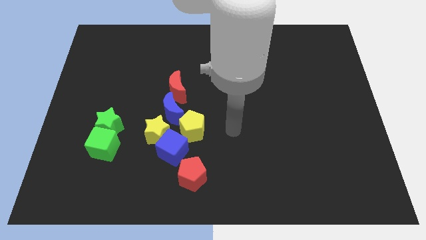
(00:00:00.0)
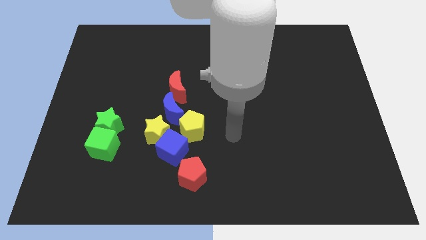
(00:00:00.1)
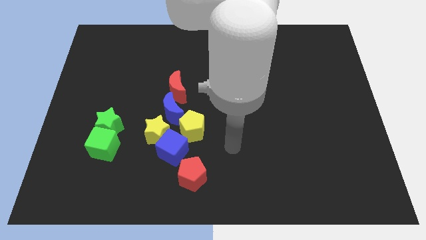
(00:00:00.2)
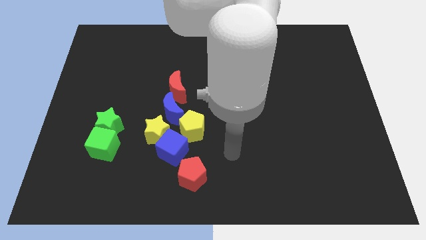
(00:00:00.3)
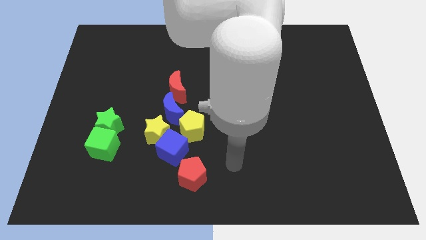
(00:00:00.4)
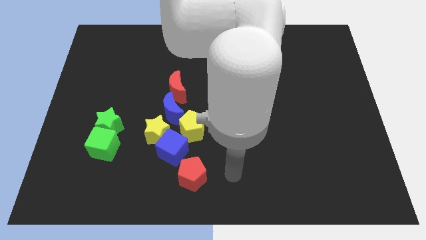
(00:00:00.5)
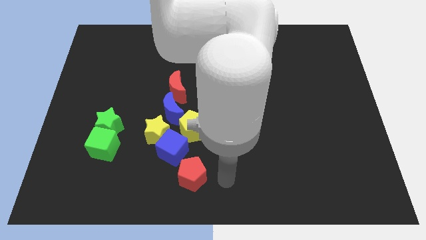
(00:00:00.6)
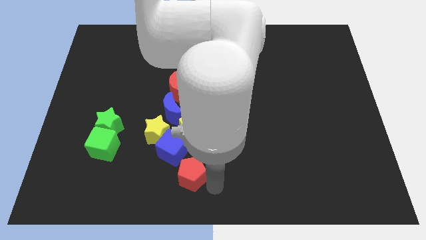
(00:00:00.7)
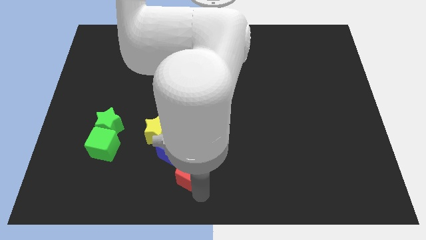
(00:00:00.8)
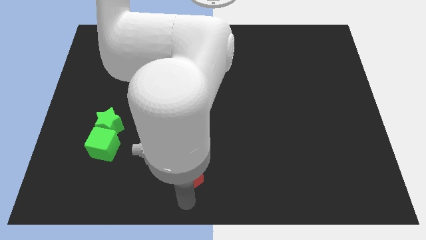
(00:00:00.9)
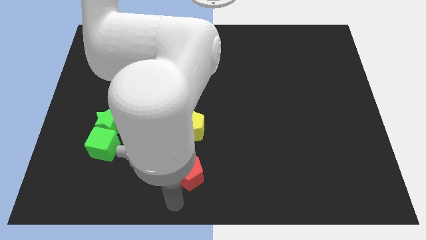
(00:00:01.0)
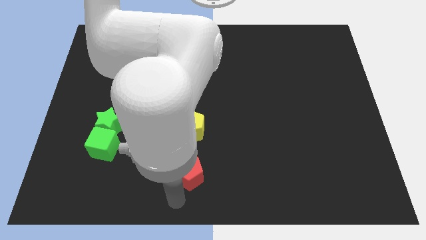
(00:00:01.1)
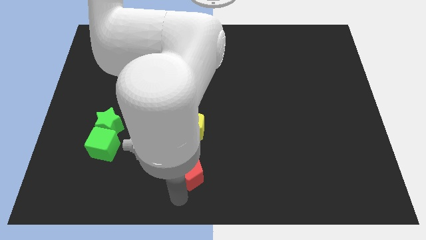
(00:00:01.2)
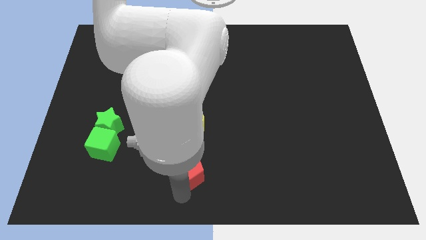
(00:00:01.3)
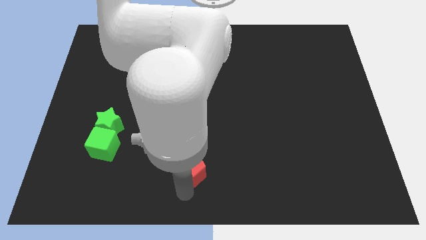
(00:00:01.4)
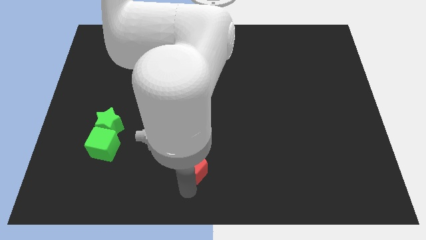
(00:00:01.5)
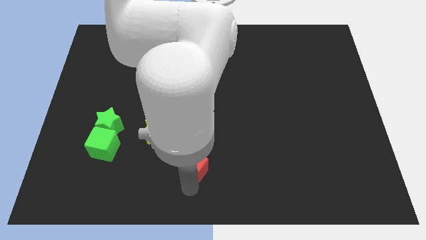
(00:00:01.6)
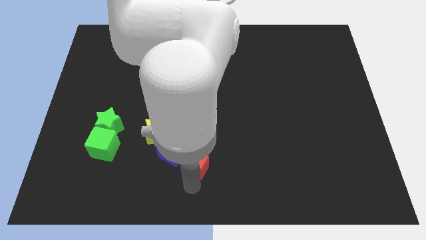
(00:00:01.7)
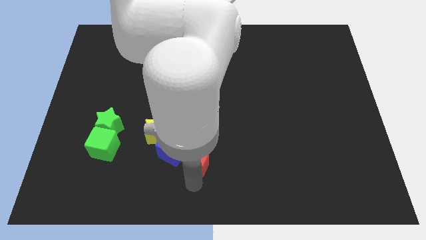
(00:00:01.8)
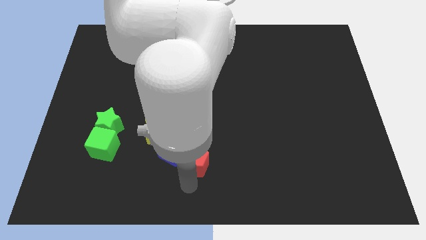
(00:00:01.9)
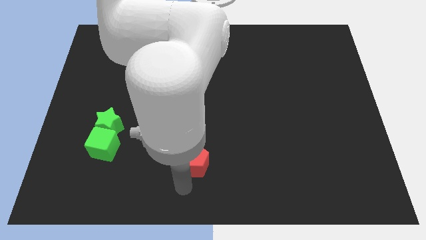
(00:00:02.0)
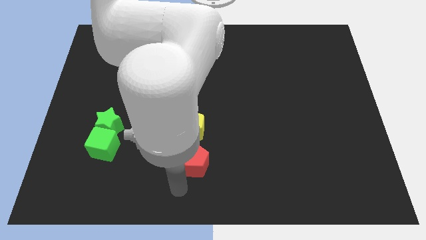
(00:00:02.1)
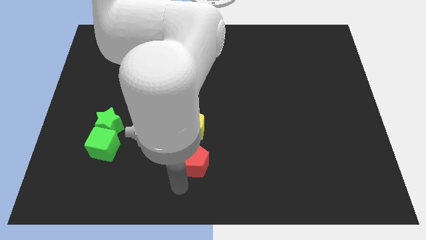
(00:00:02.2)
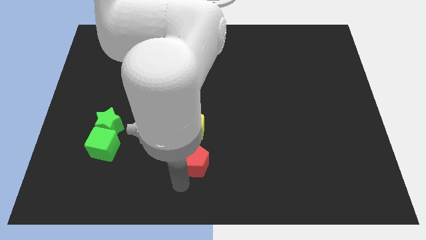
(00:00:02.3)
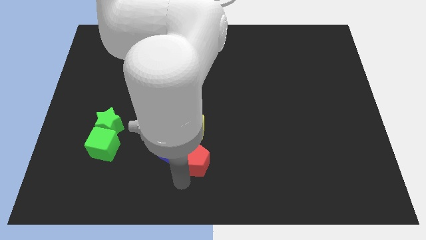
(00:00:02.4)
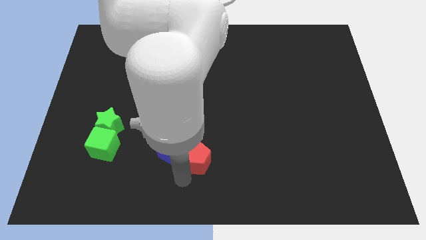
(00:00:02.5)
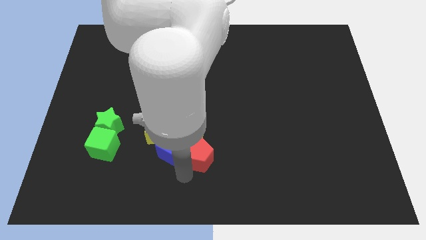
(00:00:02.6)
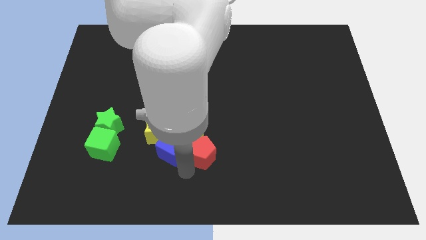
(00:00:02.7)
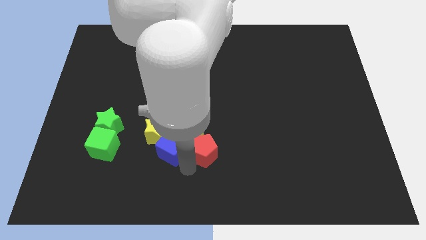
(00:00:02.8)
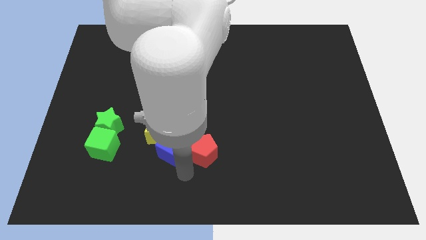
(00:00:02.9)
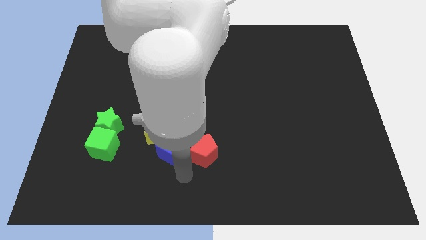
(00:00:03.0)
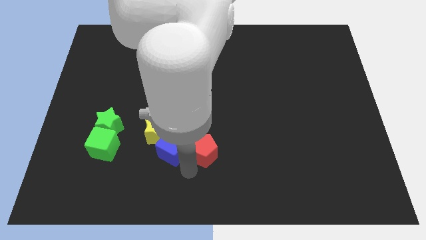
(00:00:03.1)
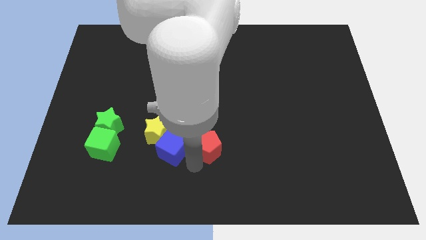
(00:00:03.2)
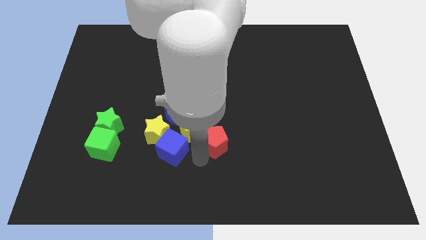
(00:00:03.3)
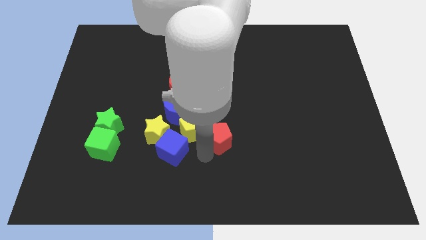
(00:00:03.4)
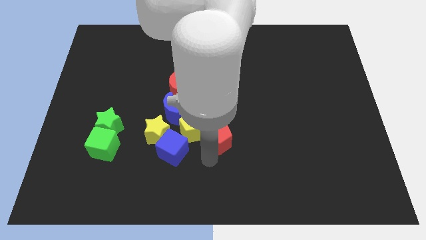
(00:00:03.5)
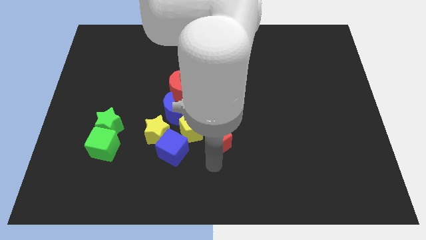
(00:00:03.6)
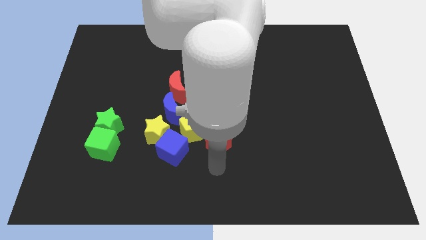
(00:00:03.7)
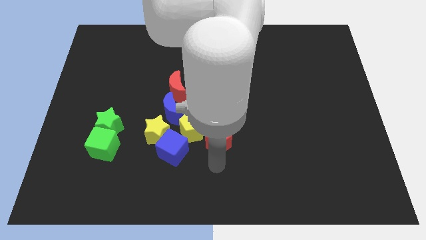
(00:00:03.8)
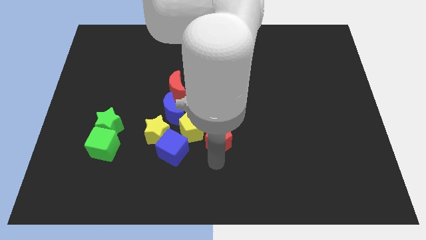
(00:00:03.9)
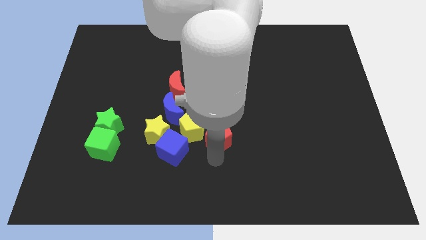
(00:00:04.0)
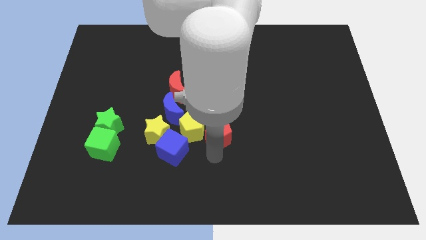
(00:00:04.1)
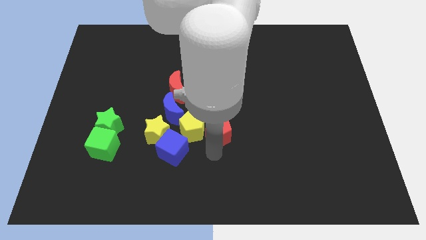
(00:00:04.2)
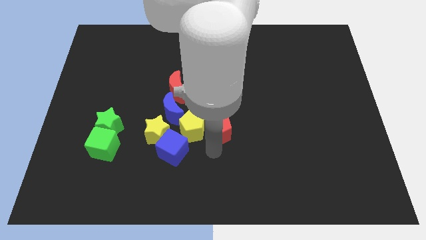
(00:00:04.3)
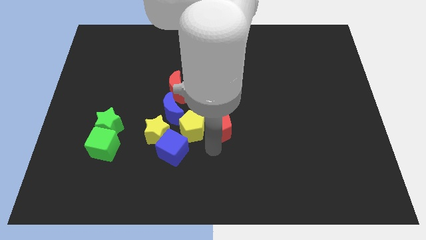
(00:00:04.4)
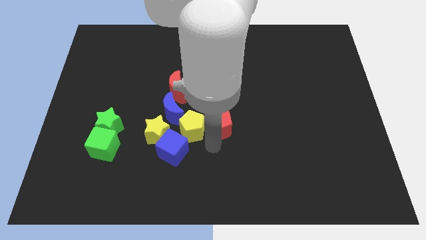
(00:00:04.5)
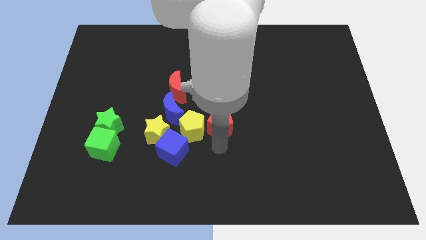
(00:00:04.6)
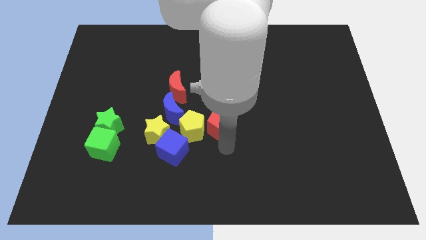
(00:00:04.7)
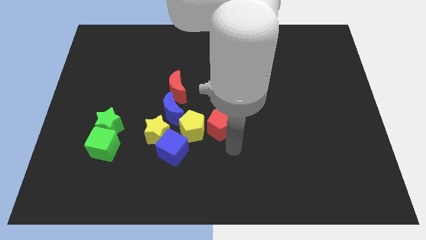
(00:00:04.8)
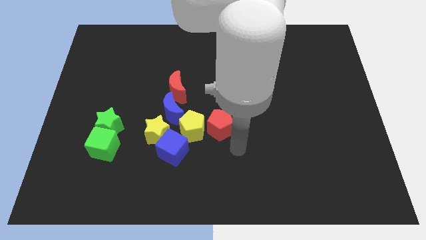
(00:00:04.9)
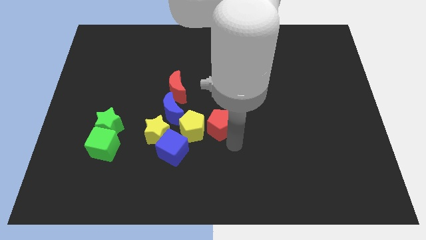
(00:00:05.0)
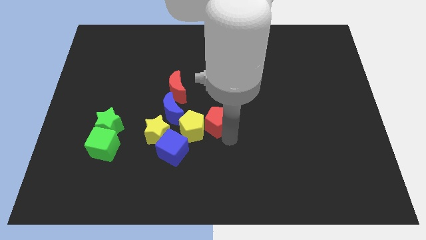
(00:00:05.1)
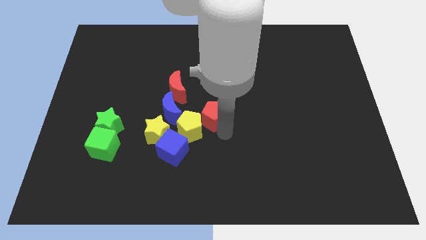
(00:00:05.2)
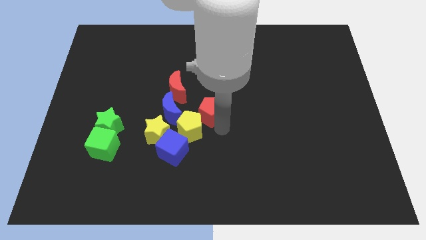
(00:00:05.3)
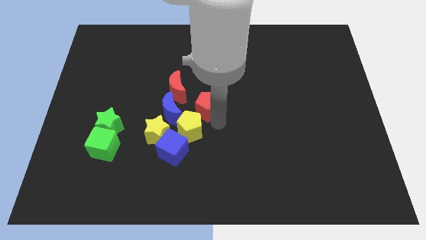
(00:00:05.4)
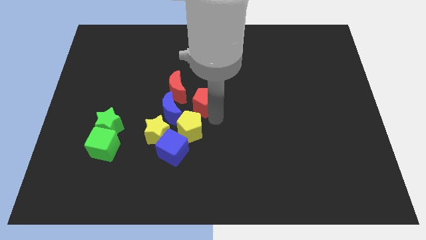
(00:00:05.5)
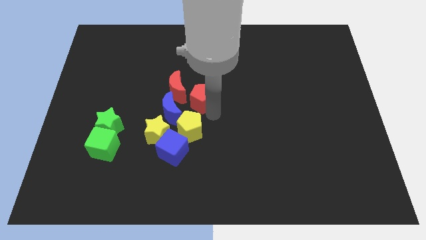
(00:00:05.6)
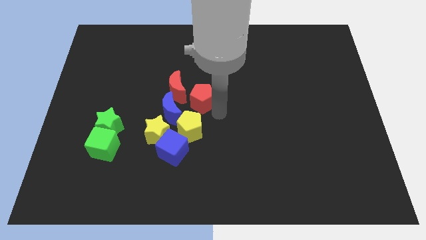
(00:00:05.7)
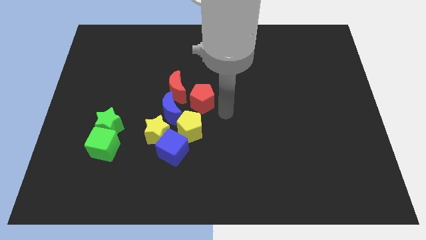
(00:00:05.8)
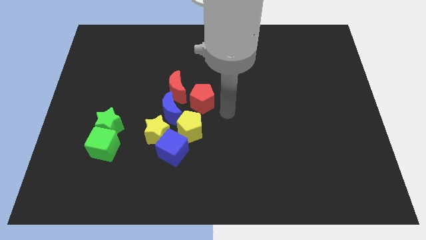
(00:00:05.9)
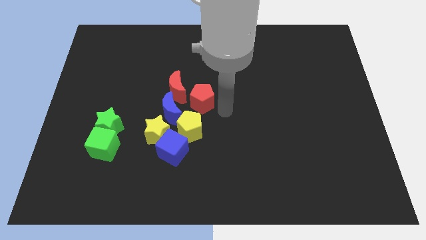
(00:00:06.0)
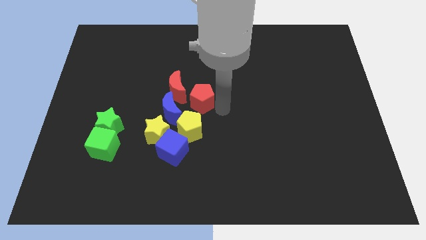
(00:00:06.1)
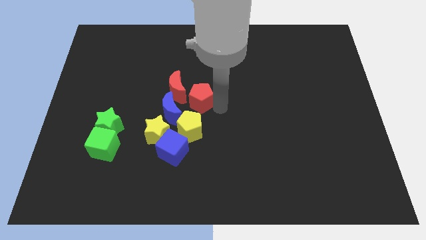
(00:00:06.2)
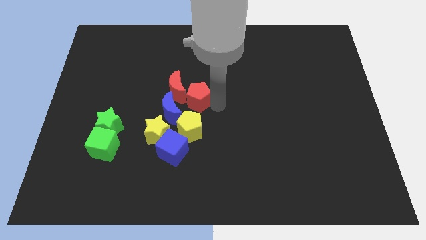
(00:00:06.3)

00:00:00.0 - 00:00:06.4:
move the red pentagon towards the red moon

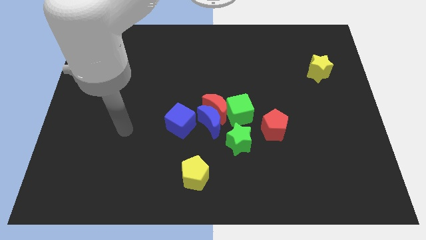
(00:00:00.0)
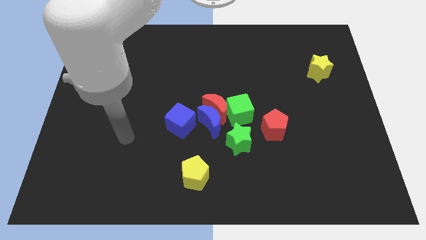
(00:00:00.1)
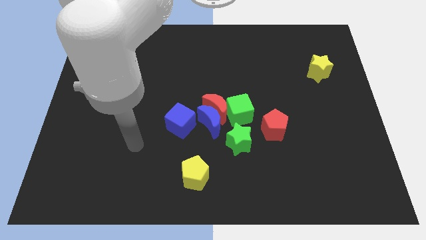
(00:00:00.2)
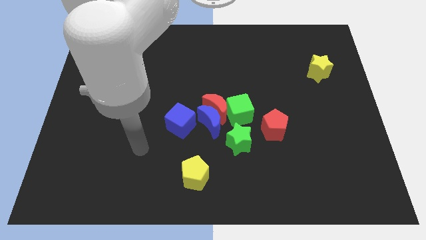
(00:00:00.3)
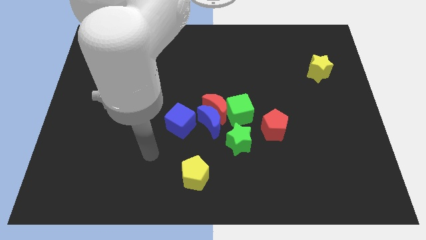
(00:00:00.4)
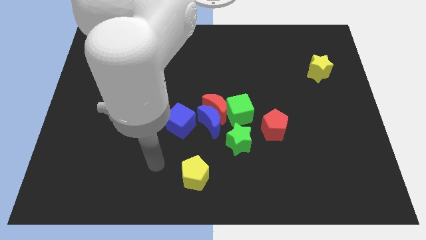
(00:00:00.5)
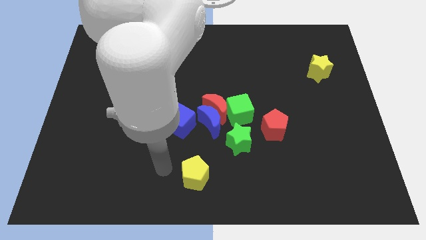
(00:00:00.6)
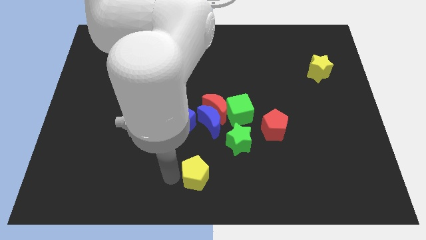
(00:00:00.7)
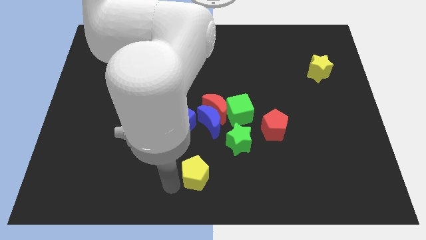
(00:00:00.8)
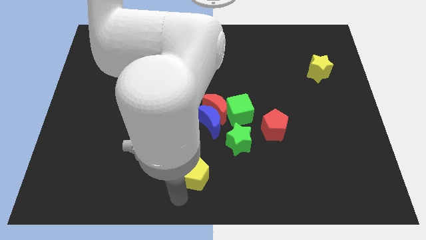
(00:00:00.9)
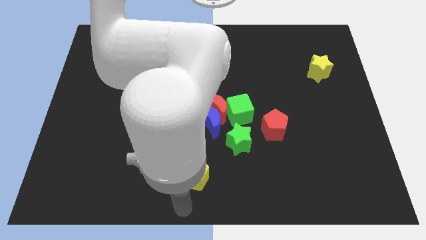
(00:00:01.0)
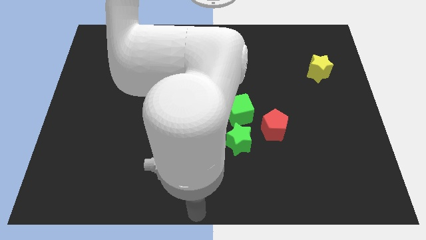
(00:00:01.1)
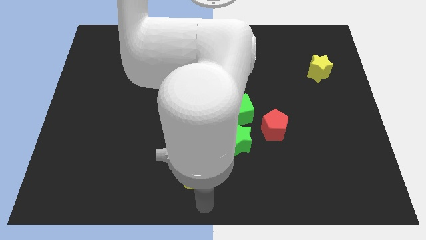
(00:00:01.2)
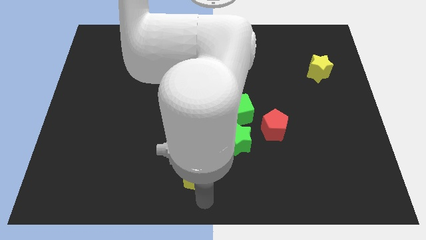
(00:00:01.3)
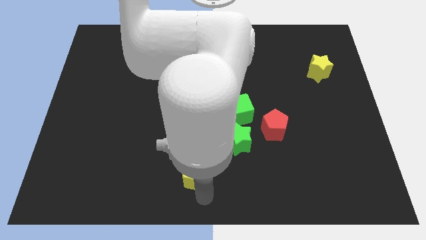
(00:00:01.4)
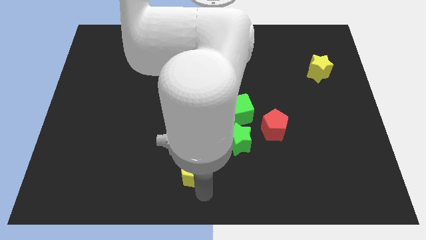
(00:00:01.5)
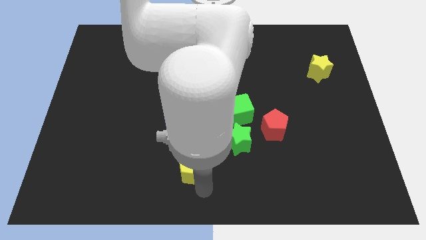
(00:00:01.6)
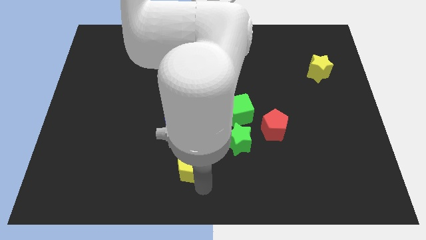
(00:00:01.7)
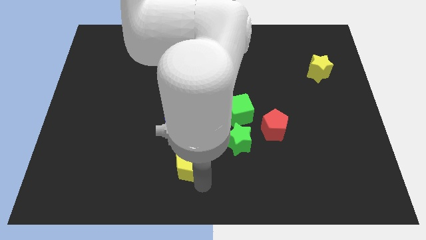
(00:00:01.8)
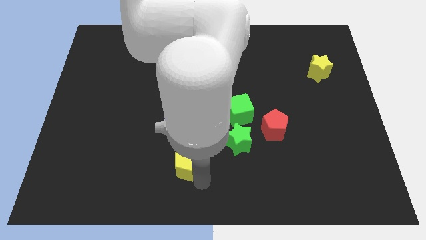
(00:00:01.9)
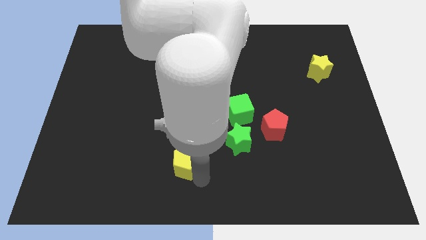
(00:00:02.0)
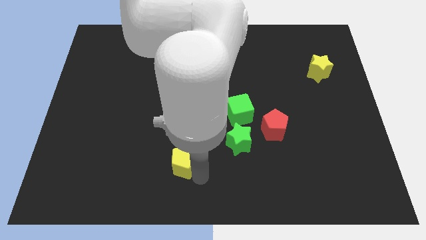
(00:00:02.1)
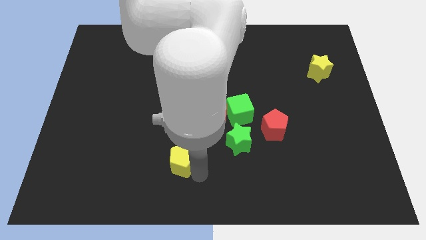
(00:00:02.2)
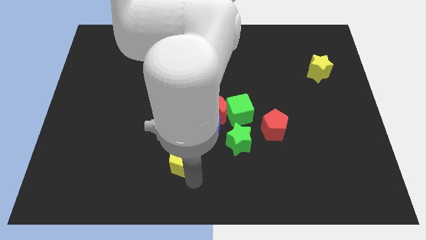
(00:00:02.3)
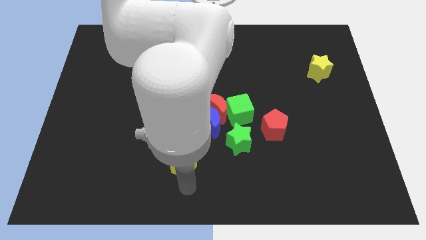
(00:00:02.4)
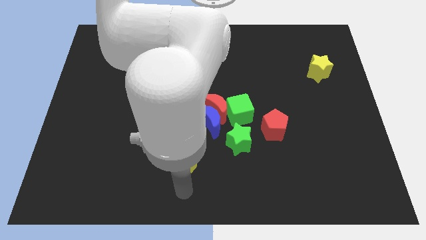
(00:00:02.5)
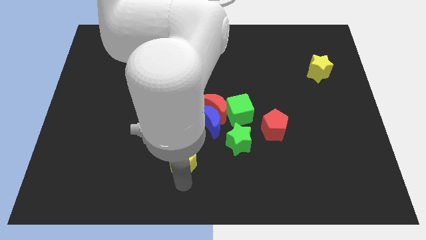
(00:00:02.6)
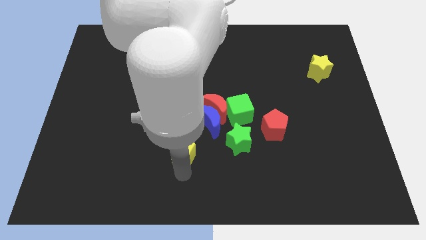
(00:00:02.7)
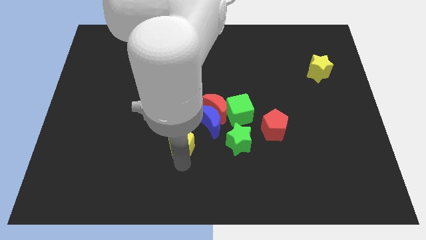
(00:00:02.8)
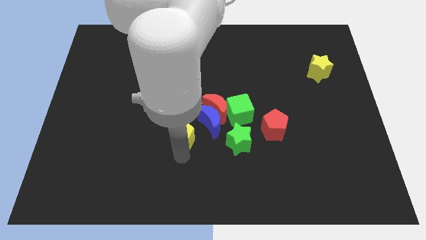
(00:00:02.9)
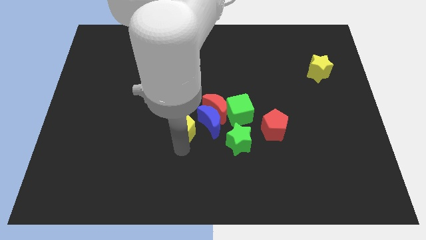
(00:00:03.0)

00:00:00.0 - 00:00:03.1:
slide the yellow pentagon to the blue cube
